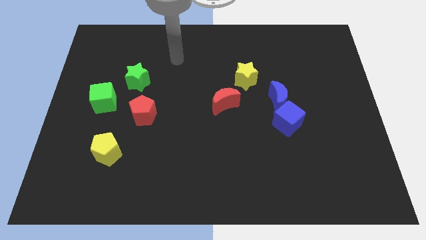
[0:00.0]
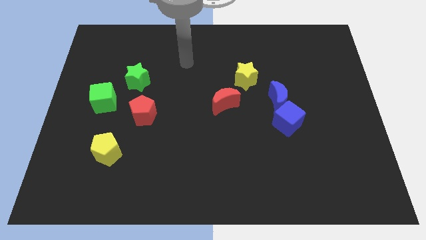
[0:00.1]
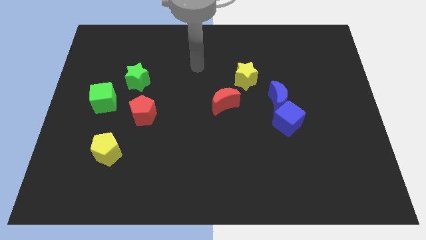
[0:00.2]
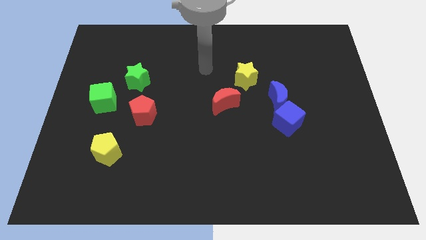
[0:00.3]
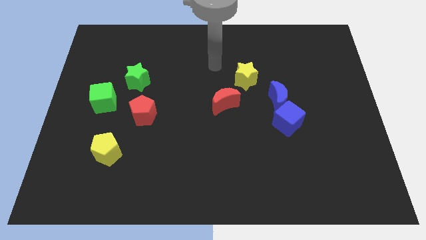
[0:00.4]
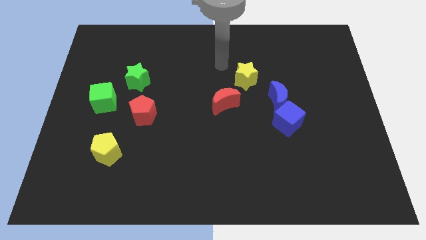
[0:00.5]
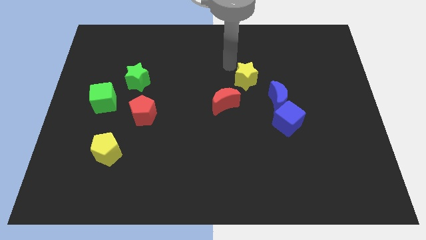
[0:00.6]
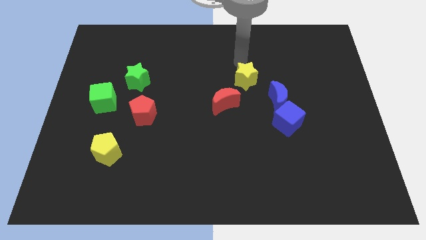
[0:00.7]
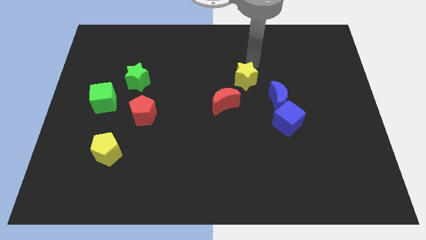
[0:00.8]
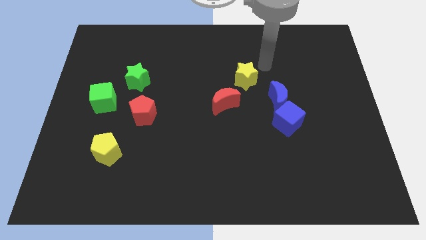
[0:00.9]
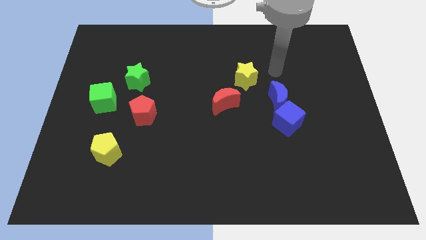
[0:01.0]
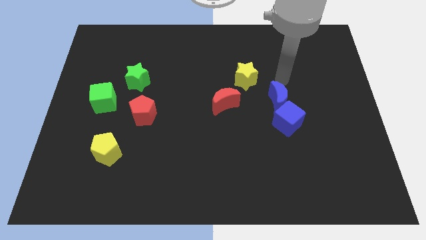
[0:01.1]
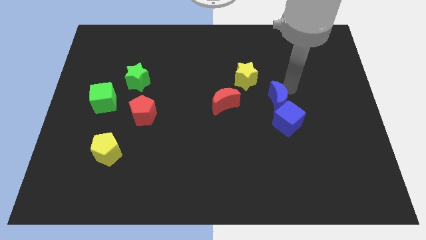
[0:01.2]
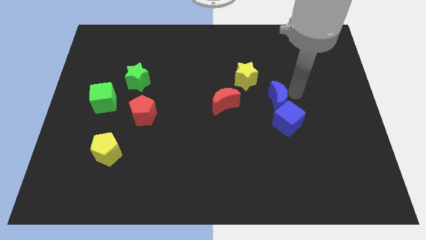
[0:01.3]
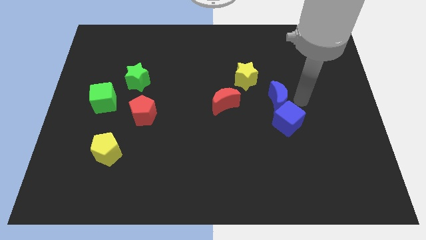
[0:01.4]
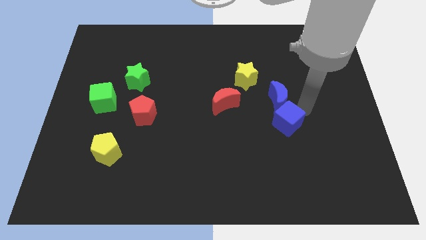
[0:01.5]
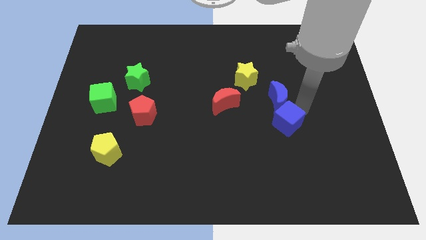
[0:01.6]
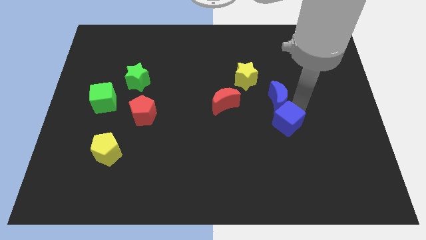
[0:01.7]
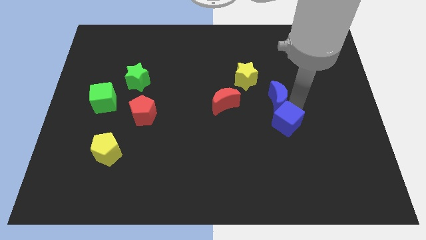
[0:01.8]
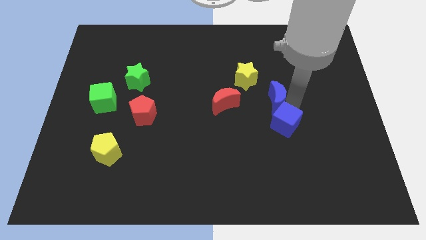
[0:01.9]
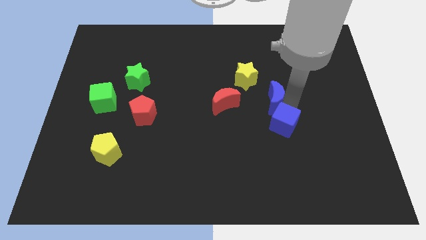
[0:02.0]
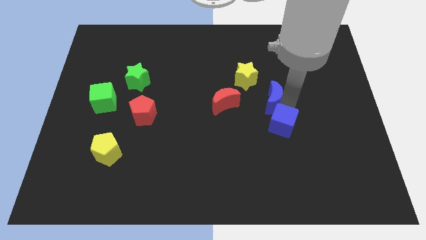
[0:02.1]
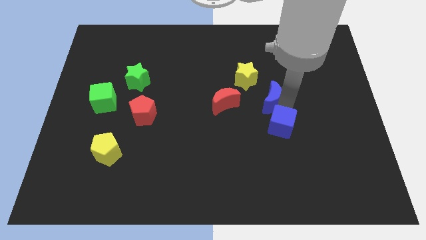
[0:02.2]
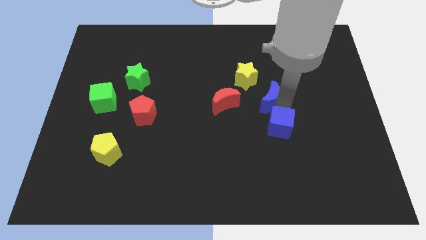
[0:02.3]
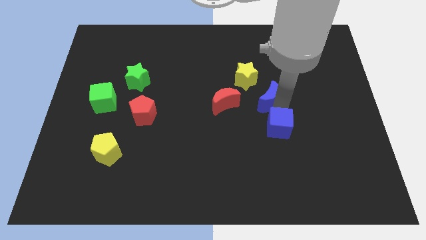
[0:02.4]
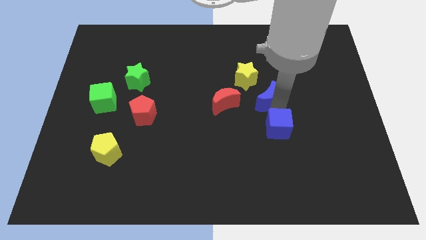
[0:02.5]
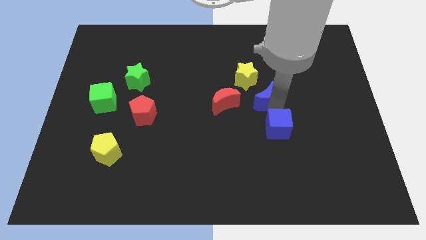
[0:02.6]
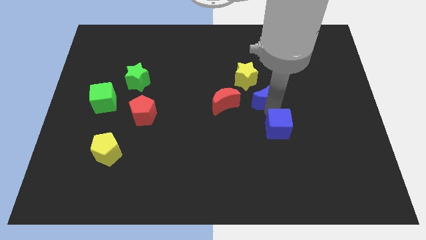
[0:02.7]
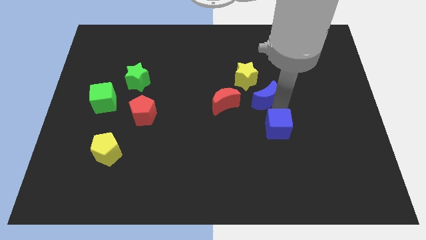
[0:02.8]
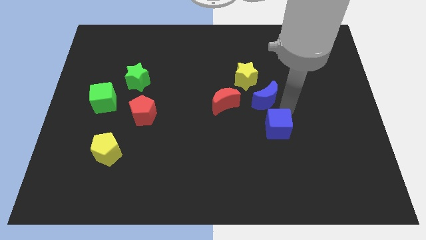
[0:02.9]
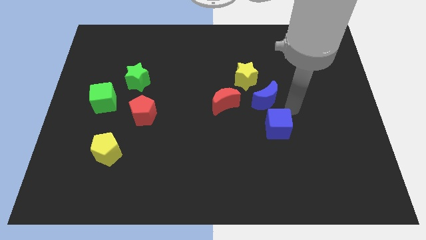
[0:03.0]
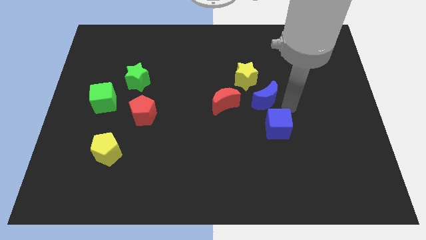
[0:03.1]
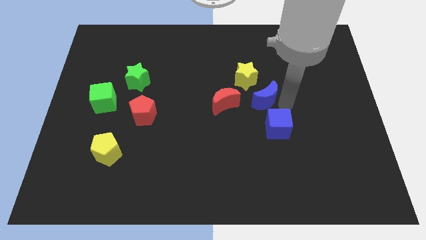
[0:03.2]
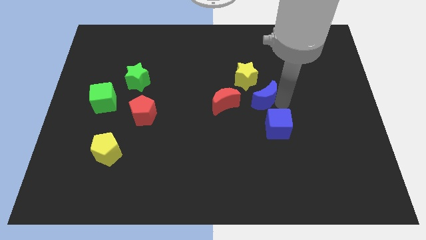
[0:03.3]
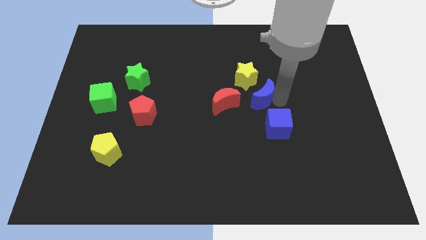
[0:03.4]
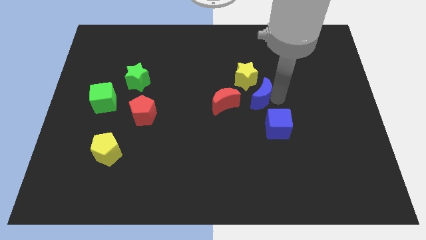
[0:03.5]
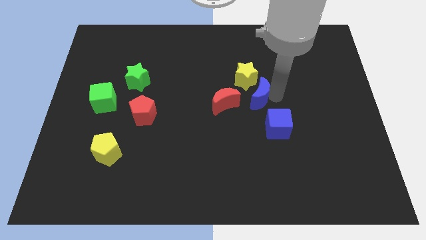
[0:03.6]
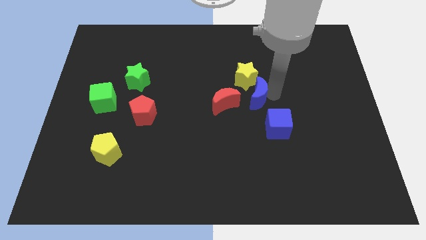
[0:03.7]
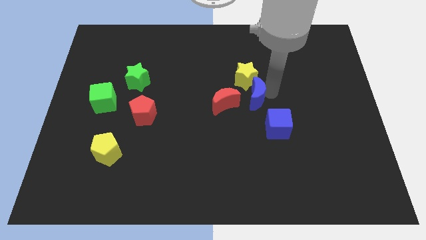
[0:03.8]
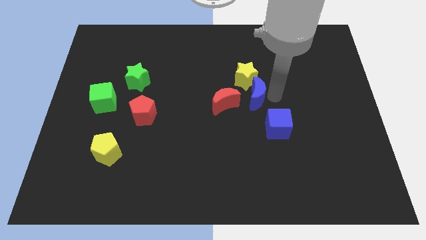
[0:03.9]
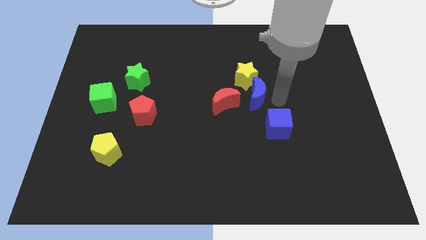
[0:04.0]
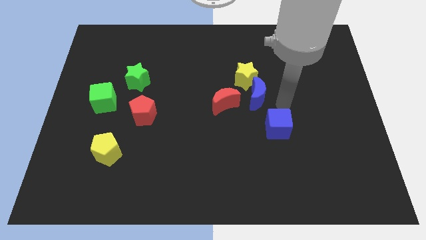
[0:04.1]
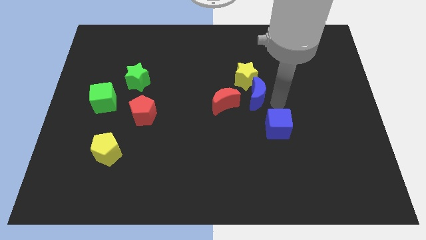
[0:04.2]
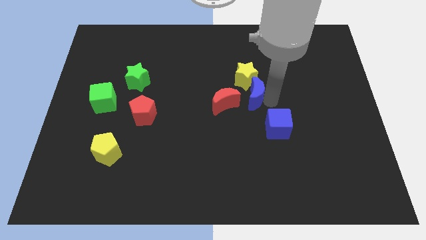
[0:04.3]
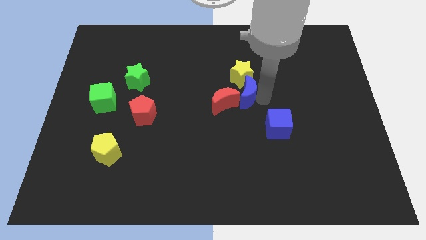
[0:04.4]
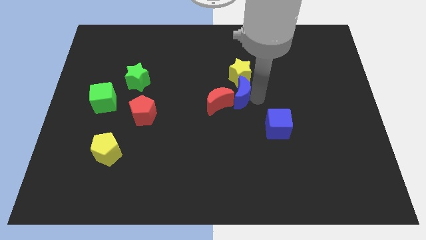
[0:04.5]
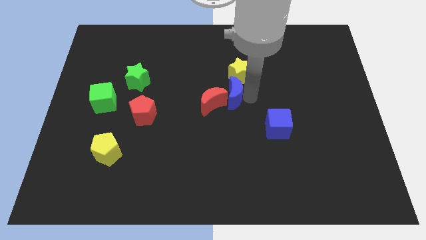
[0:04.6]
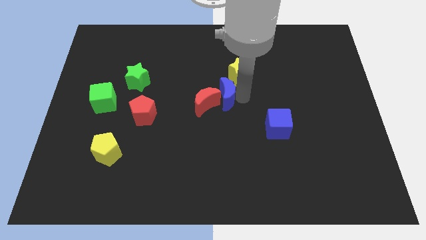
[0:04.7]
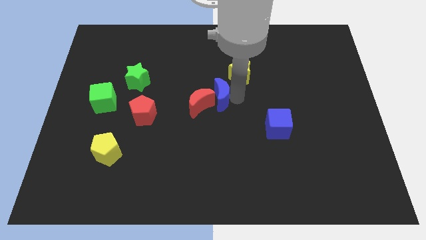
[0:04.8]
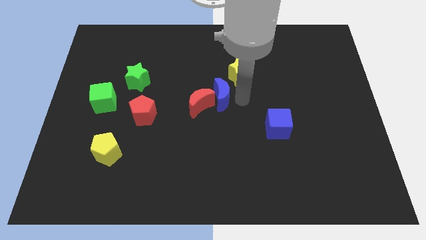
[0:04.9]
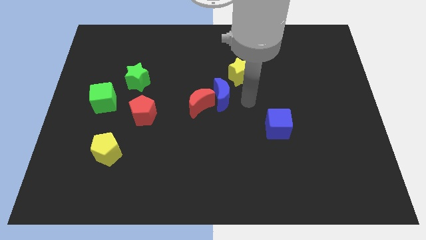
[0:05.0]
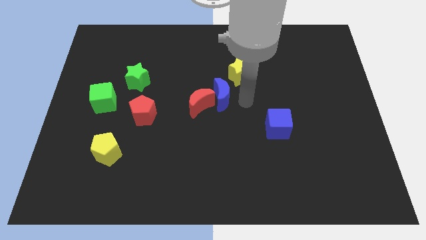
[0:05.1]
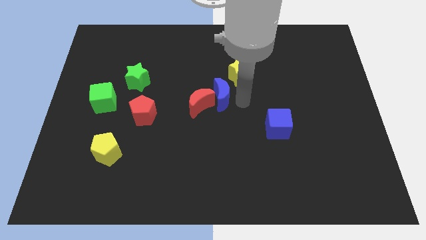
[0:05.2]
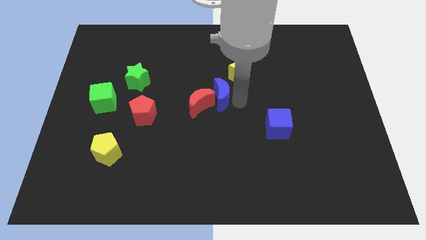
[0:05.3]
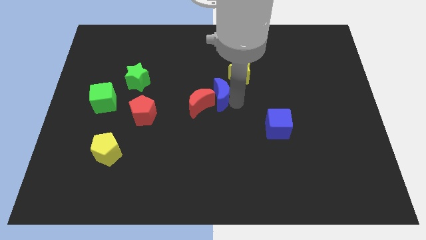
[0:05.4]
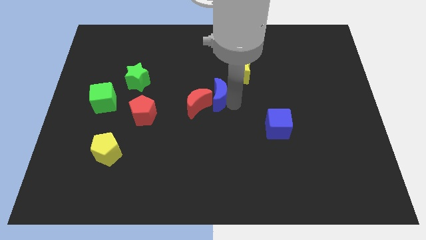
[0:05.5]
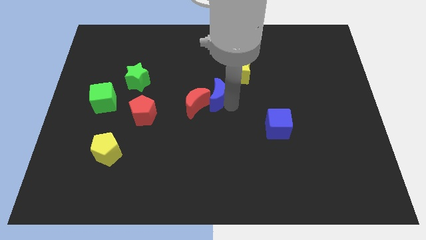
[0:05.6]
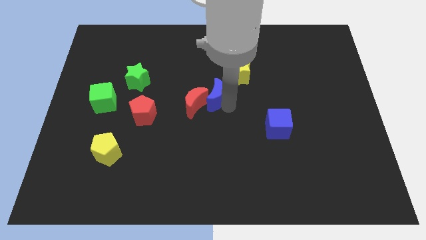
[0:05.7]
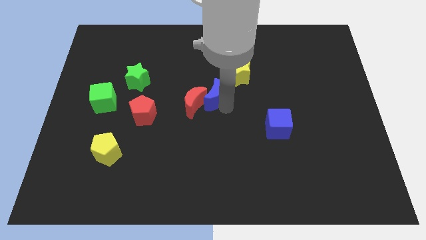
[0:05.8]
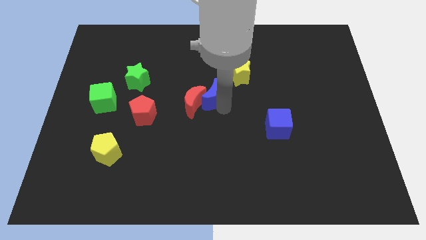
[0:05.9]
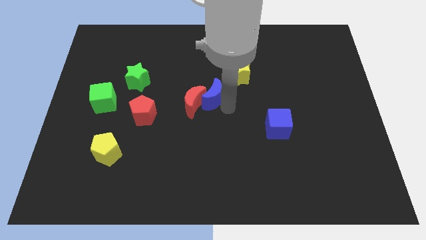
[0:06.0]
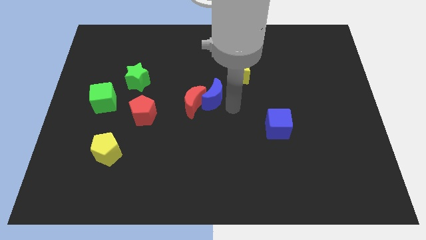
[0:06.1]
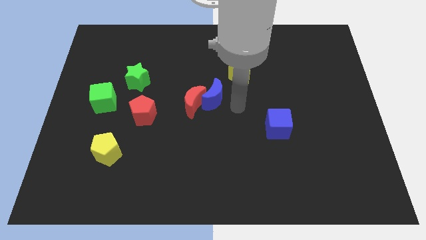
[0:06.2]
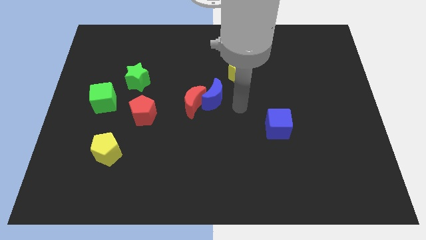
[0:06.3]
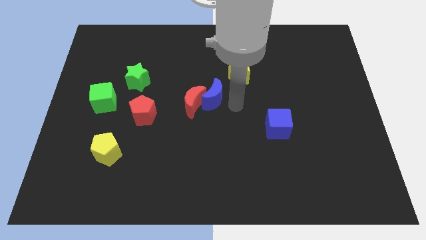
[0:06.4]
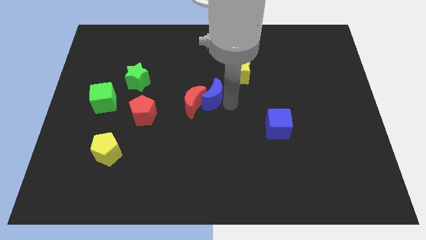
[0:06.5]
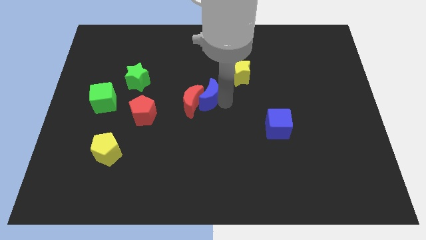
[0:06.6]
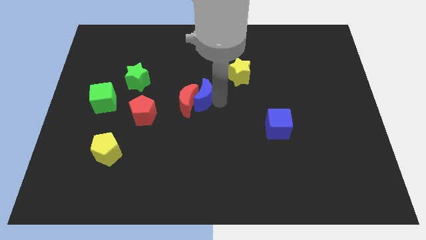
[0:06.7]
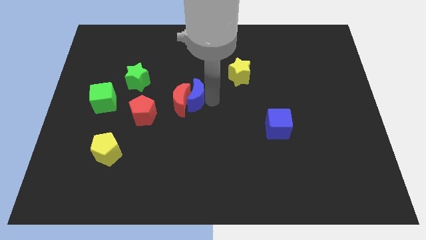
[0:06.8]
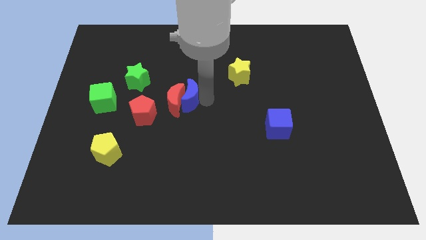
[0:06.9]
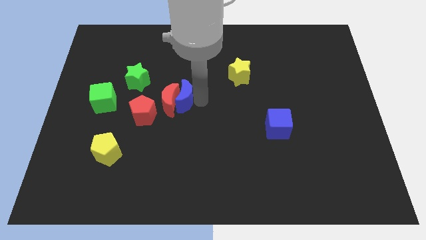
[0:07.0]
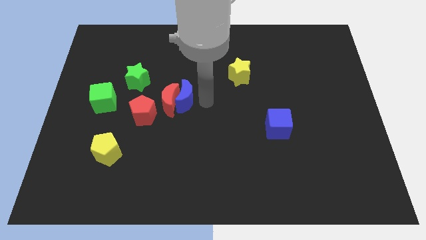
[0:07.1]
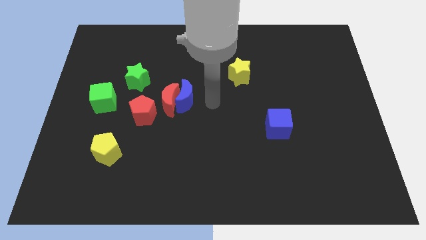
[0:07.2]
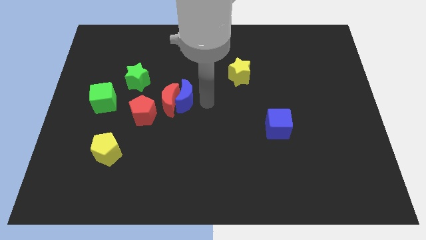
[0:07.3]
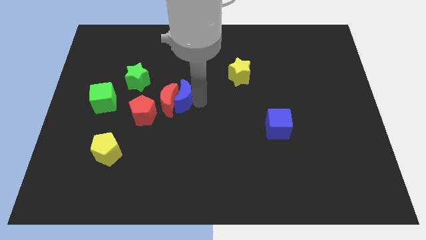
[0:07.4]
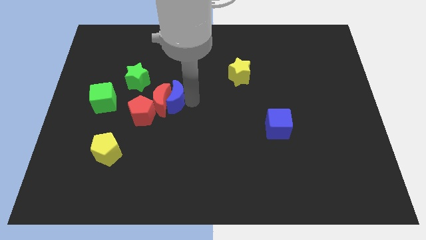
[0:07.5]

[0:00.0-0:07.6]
push the blue moon diagonally down and to the right of the green star
